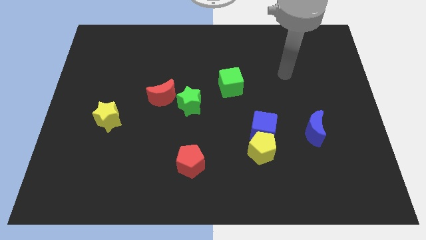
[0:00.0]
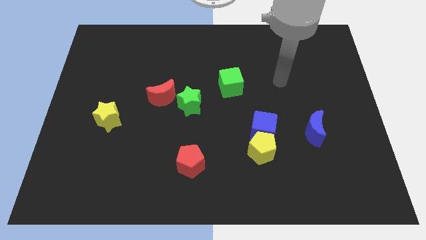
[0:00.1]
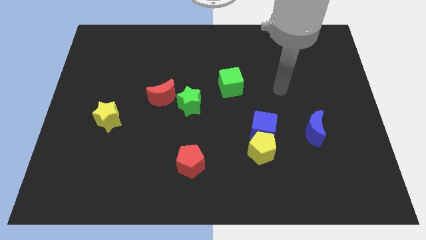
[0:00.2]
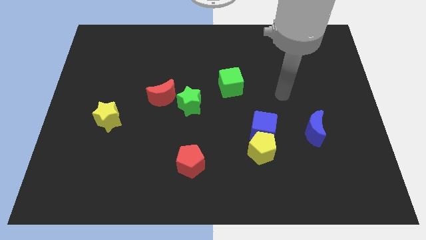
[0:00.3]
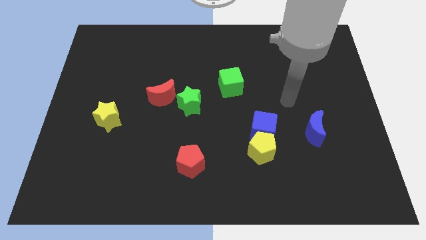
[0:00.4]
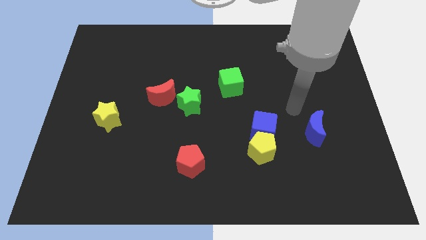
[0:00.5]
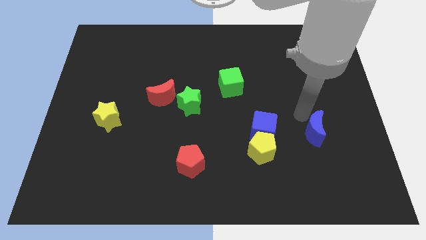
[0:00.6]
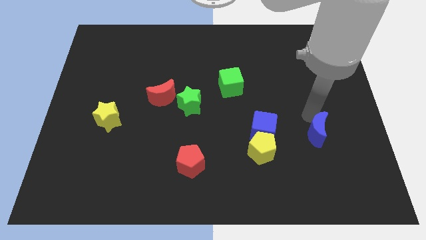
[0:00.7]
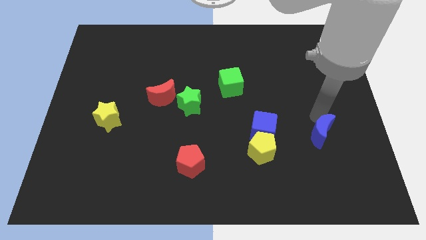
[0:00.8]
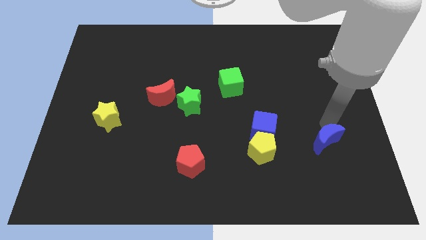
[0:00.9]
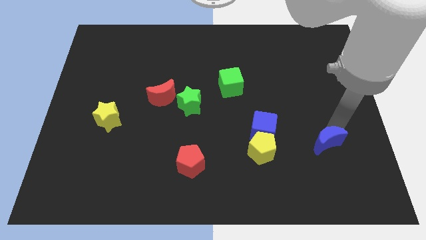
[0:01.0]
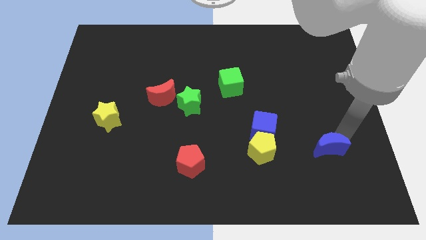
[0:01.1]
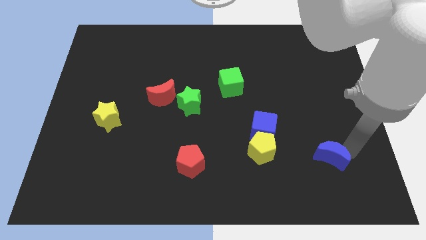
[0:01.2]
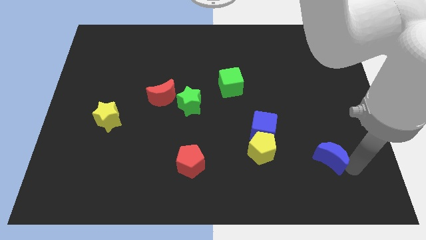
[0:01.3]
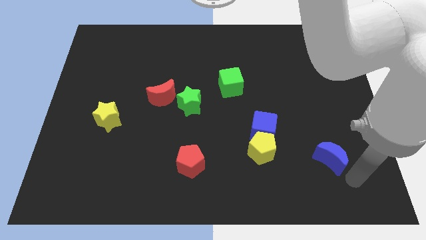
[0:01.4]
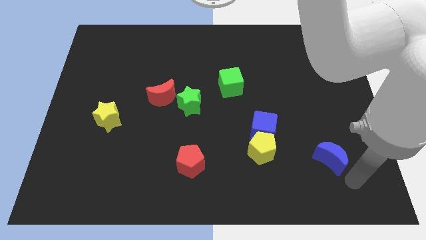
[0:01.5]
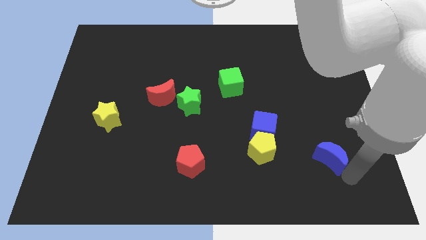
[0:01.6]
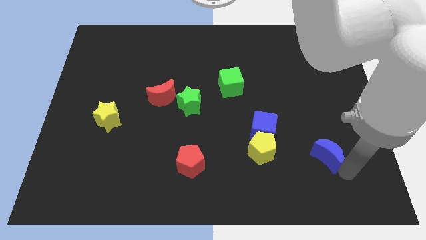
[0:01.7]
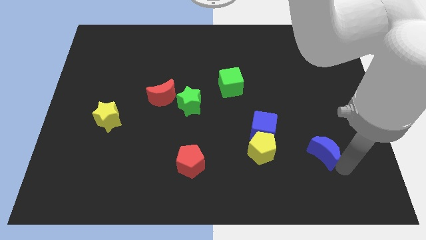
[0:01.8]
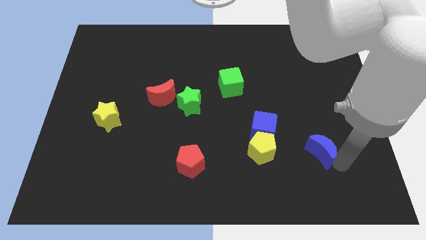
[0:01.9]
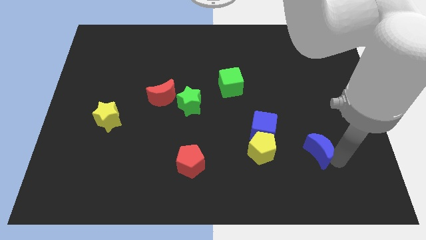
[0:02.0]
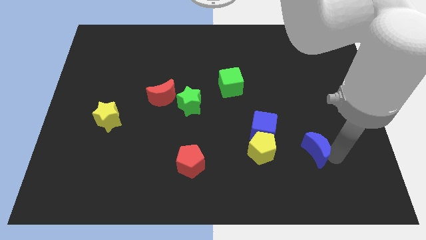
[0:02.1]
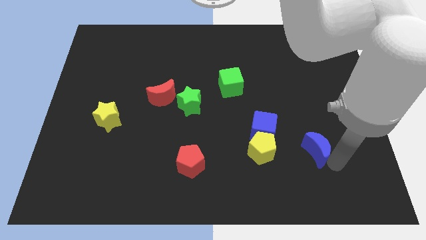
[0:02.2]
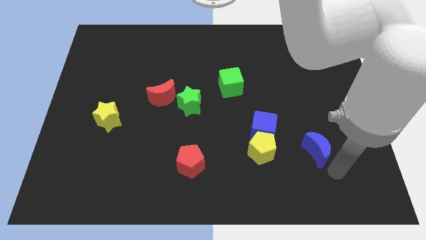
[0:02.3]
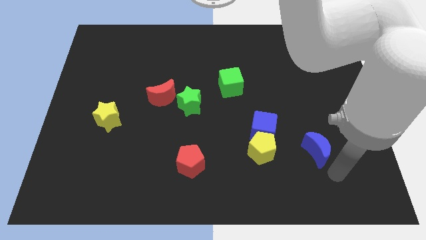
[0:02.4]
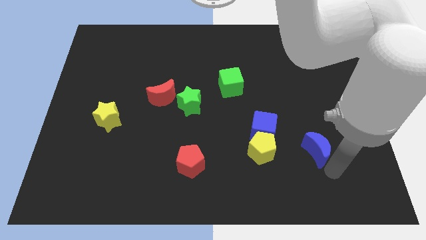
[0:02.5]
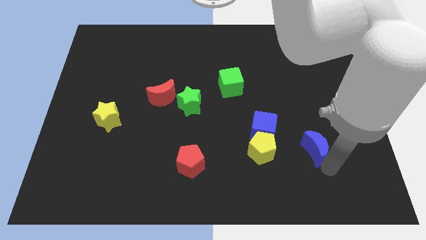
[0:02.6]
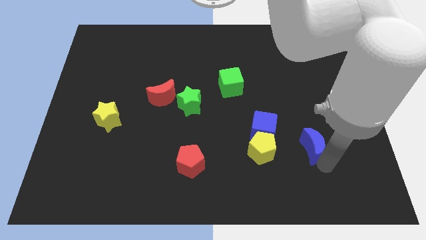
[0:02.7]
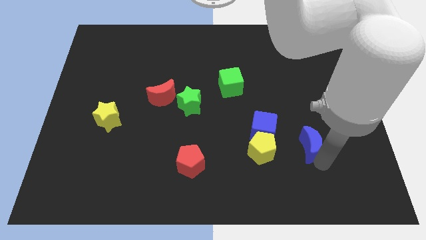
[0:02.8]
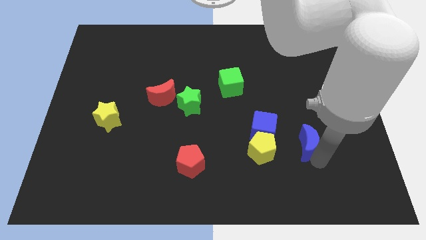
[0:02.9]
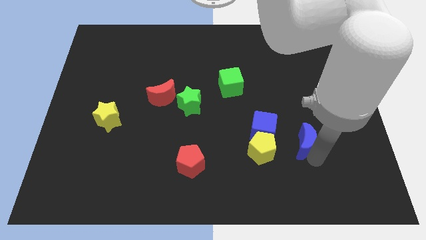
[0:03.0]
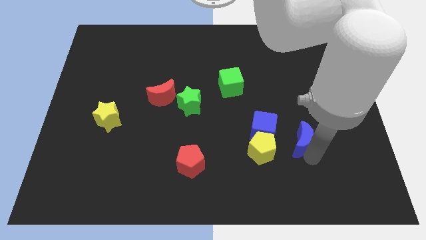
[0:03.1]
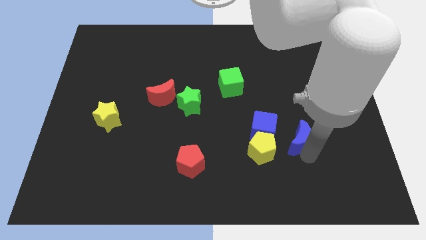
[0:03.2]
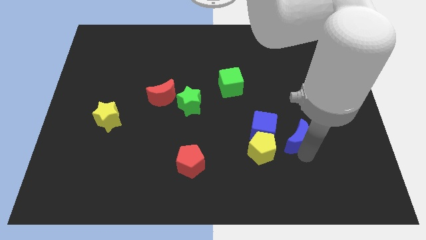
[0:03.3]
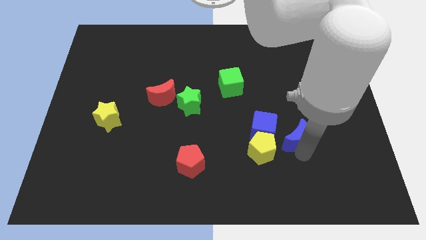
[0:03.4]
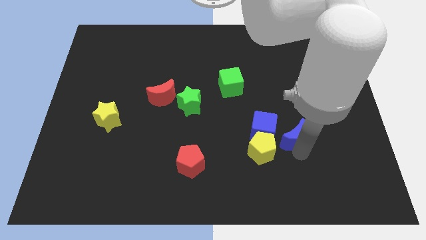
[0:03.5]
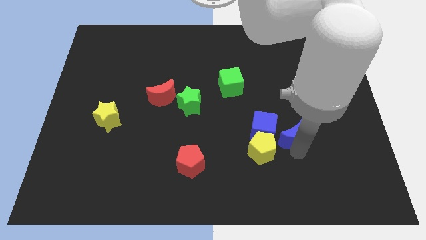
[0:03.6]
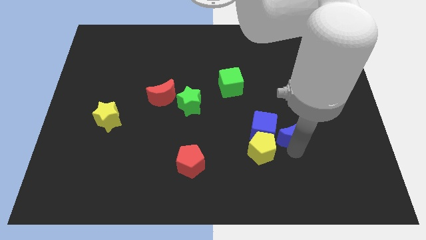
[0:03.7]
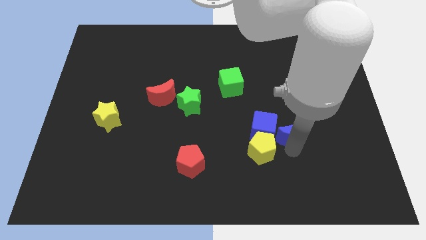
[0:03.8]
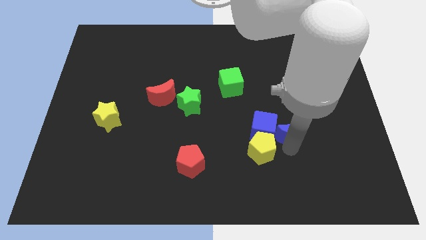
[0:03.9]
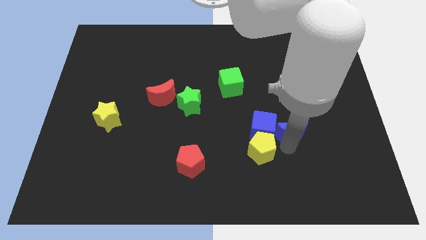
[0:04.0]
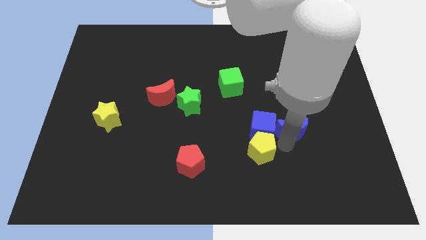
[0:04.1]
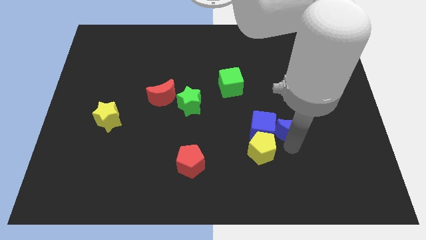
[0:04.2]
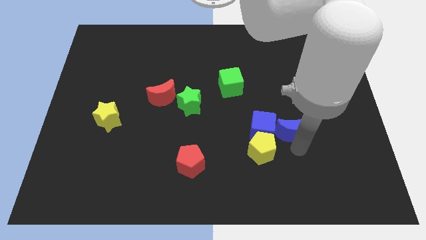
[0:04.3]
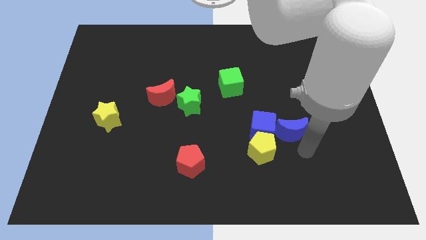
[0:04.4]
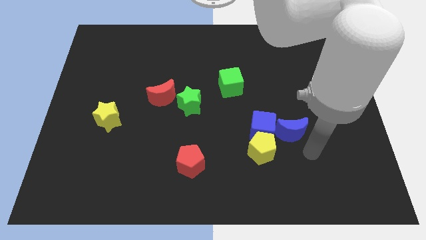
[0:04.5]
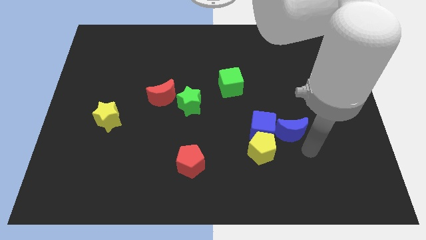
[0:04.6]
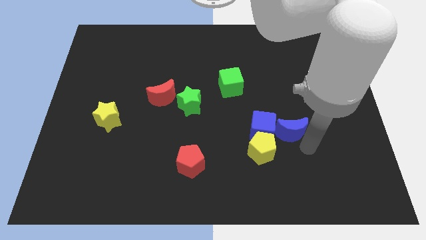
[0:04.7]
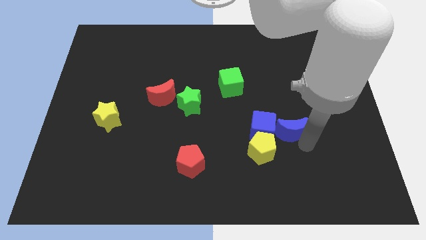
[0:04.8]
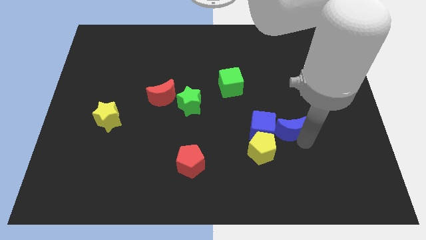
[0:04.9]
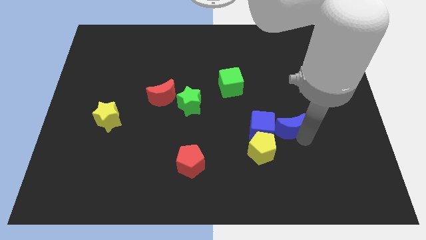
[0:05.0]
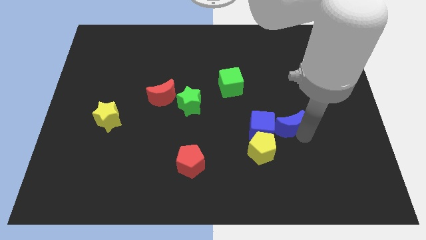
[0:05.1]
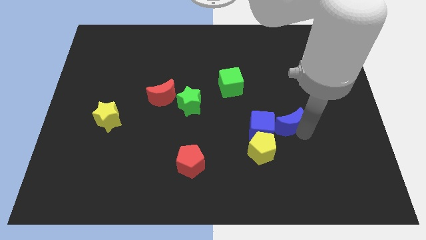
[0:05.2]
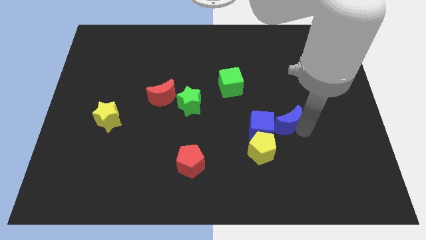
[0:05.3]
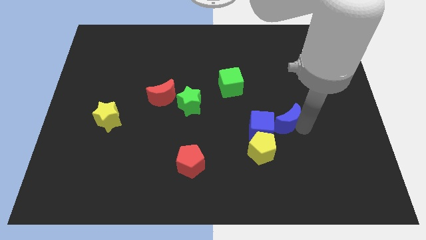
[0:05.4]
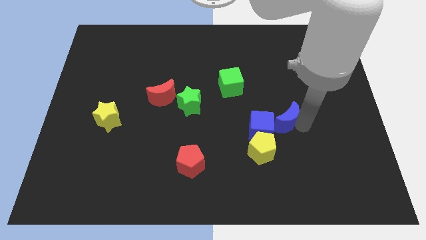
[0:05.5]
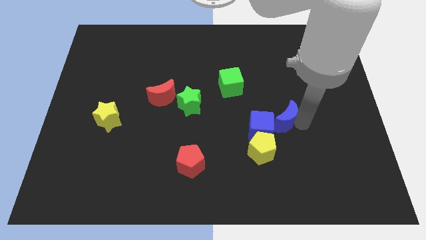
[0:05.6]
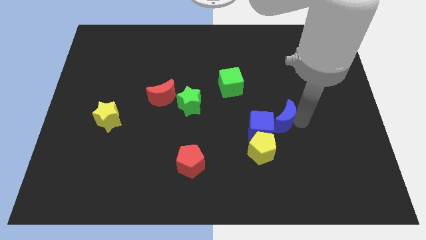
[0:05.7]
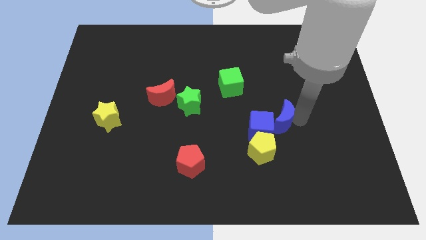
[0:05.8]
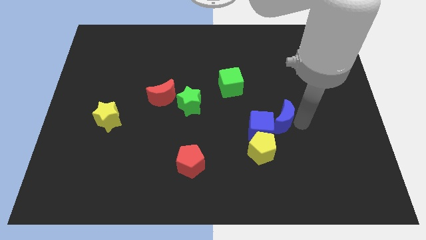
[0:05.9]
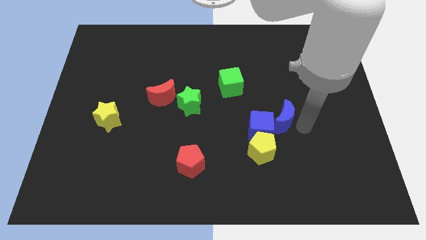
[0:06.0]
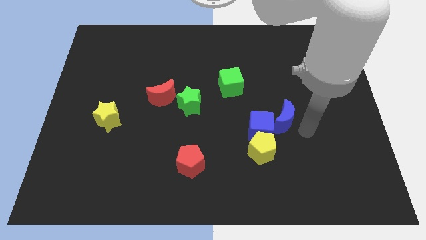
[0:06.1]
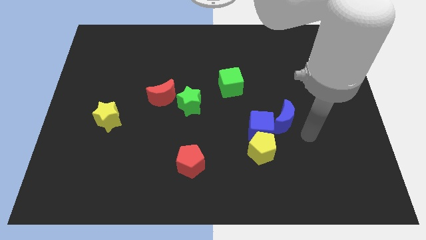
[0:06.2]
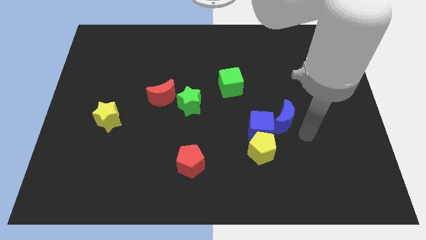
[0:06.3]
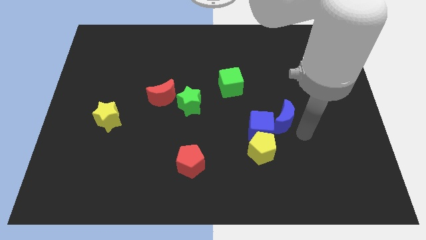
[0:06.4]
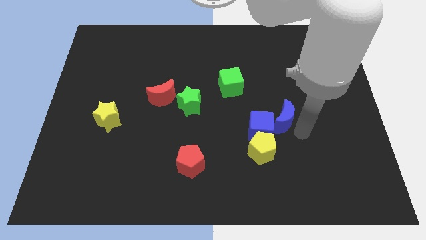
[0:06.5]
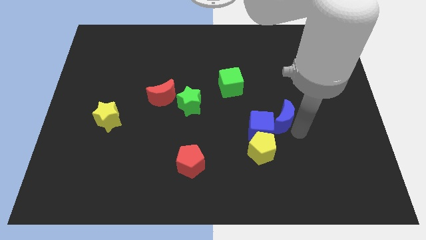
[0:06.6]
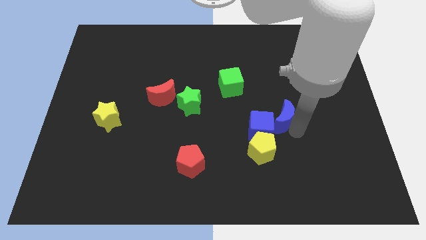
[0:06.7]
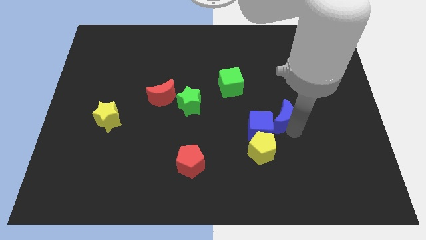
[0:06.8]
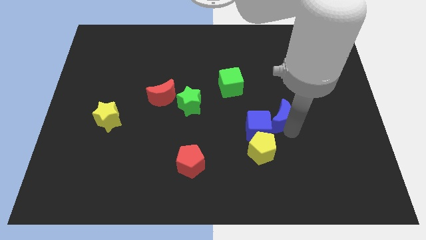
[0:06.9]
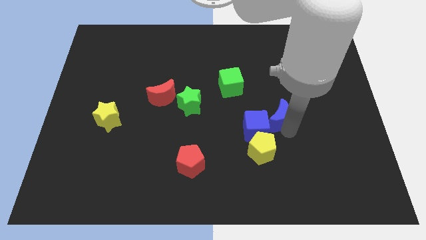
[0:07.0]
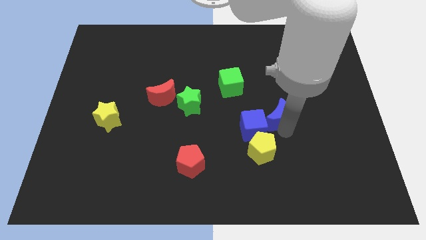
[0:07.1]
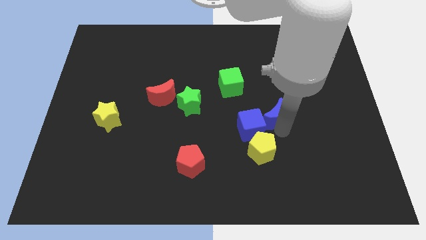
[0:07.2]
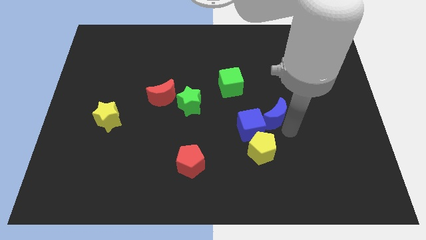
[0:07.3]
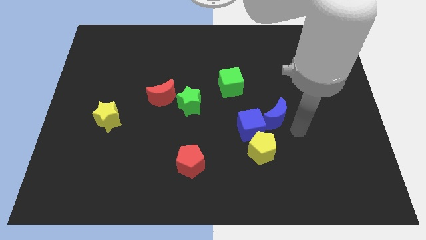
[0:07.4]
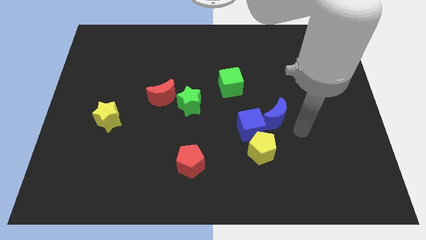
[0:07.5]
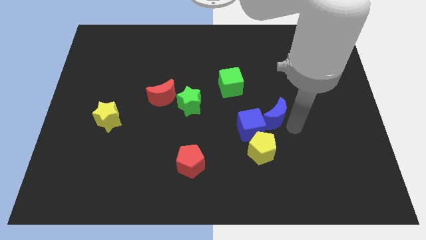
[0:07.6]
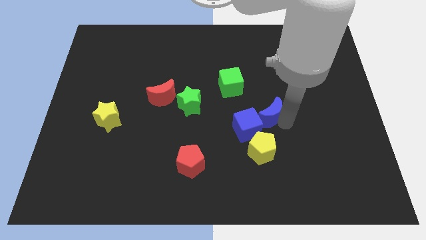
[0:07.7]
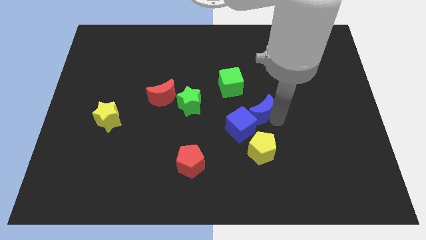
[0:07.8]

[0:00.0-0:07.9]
slide the blue moon to the center
